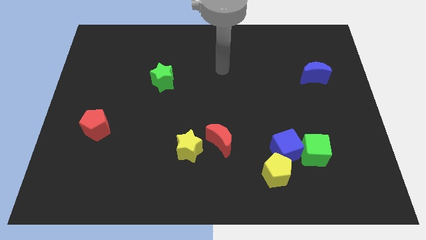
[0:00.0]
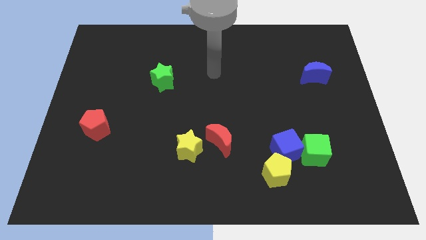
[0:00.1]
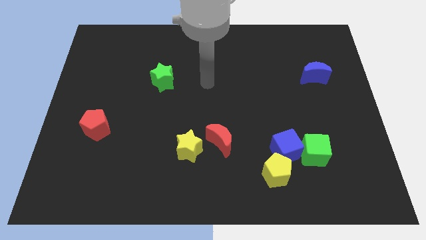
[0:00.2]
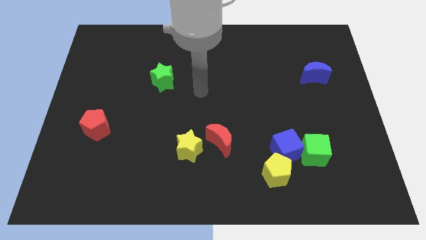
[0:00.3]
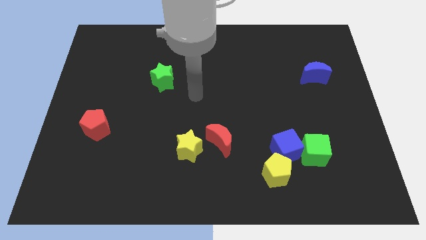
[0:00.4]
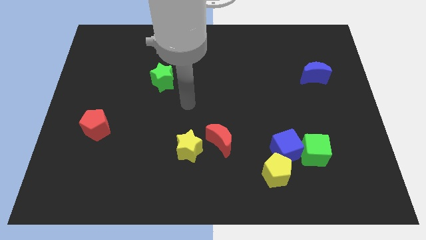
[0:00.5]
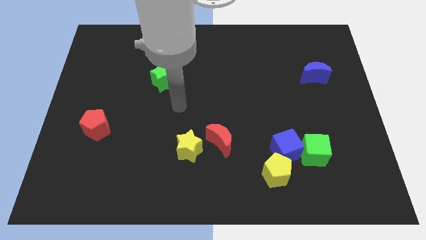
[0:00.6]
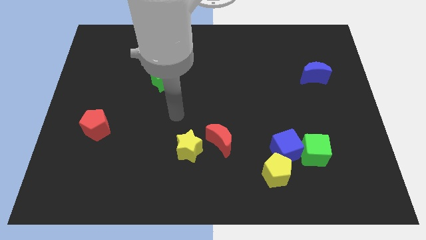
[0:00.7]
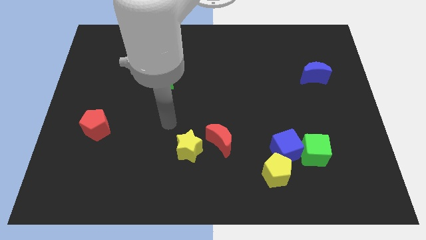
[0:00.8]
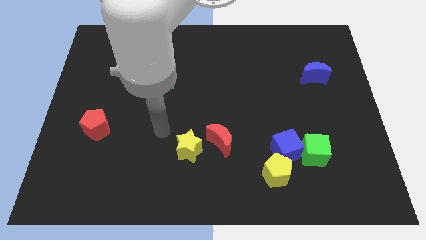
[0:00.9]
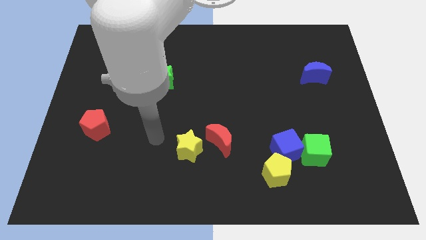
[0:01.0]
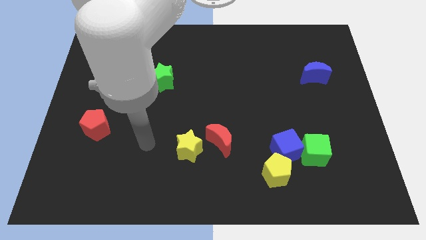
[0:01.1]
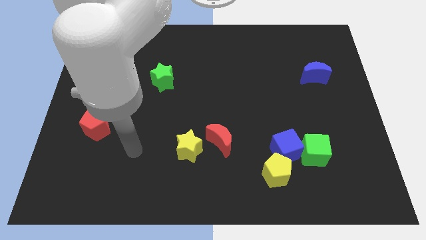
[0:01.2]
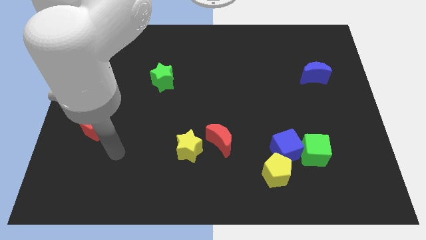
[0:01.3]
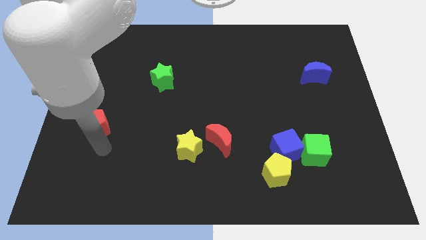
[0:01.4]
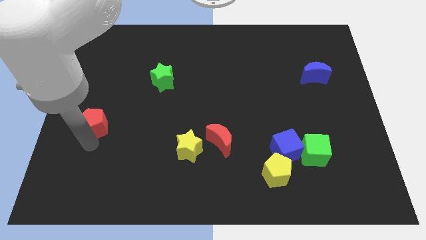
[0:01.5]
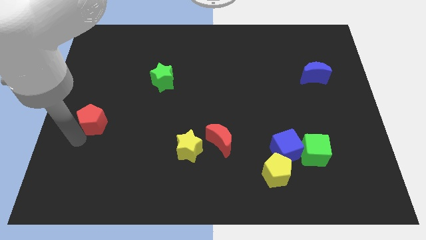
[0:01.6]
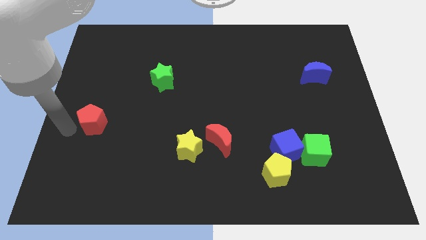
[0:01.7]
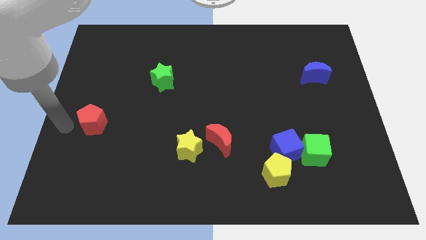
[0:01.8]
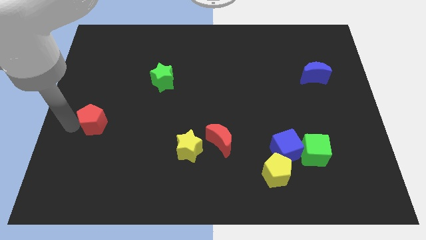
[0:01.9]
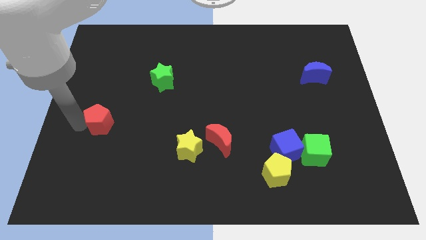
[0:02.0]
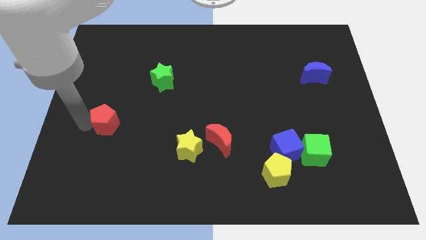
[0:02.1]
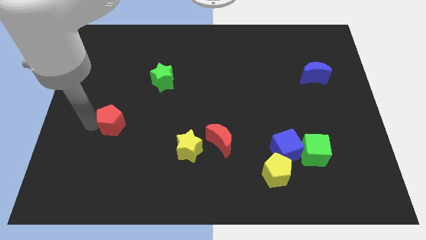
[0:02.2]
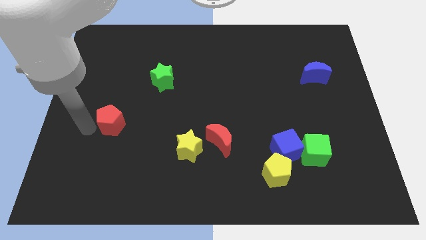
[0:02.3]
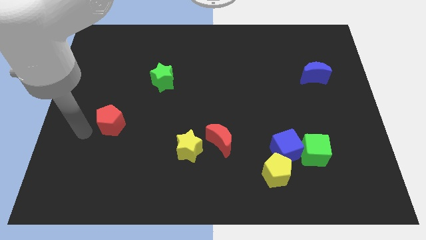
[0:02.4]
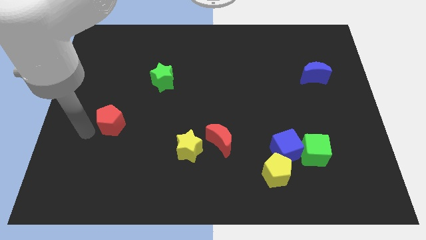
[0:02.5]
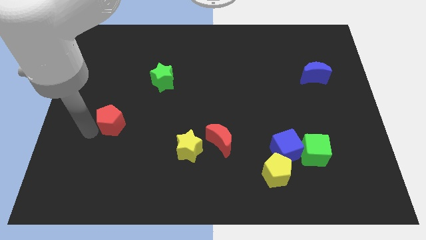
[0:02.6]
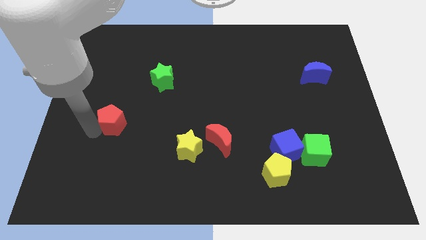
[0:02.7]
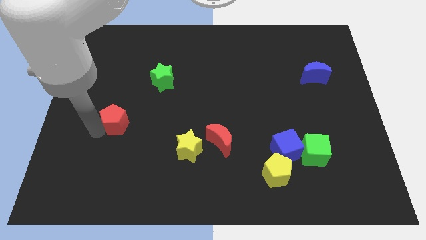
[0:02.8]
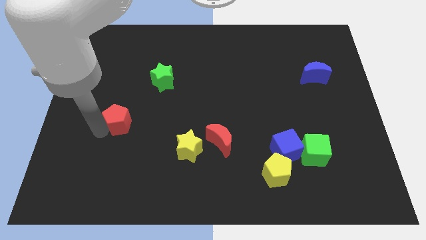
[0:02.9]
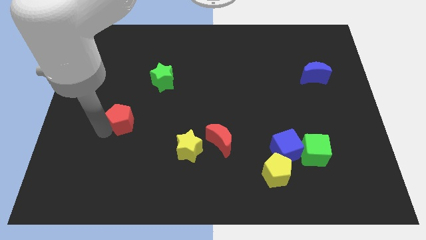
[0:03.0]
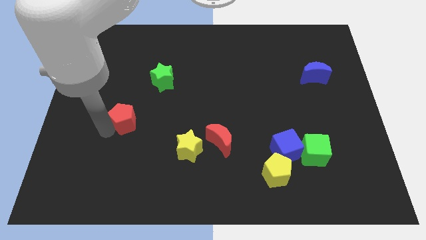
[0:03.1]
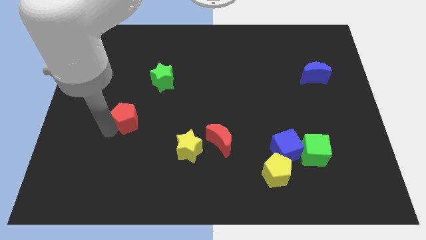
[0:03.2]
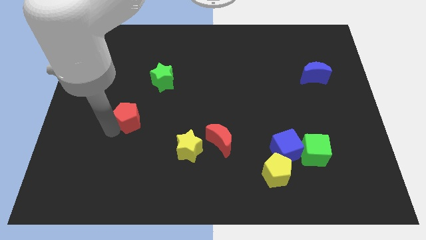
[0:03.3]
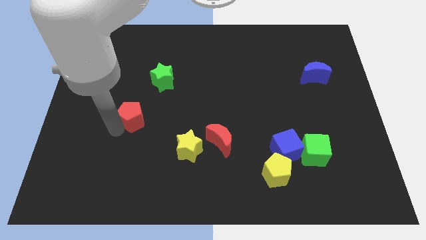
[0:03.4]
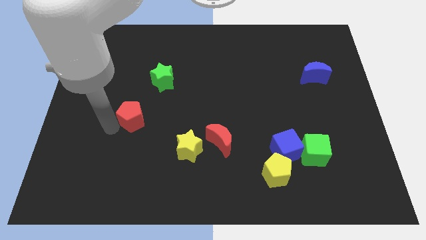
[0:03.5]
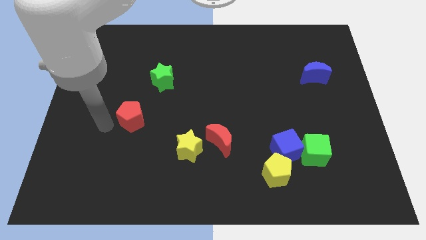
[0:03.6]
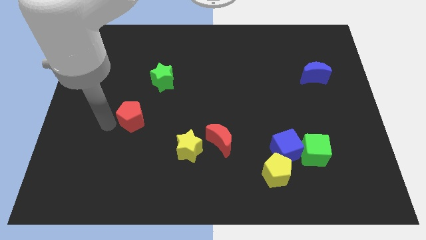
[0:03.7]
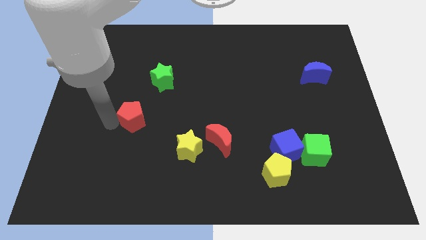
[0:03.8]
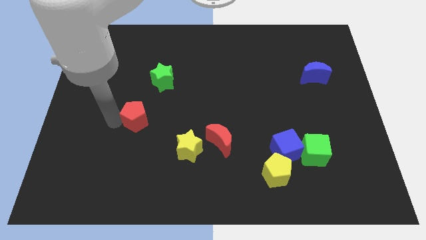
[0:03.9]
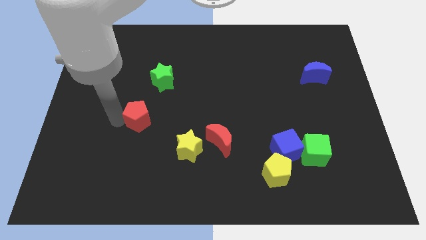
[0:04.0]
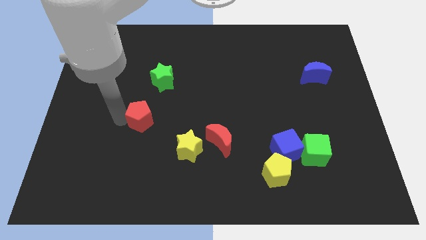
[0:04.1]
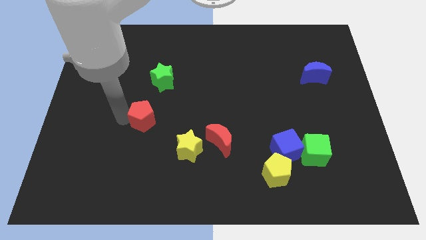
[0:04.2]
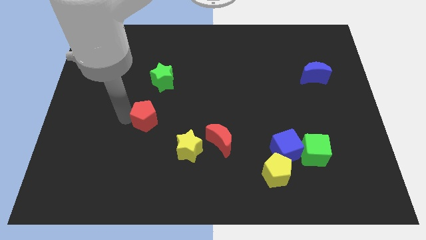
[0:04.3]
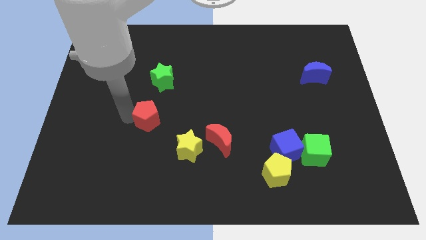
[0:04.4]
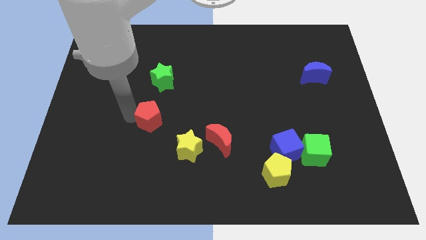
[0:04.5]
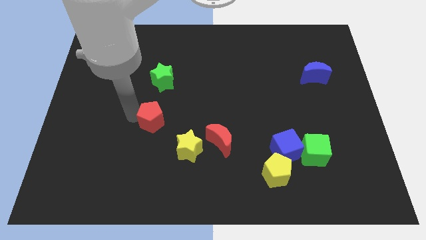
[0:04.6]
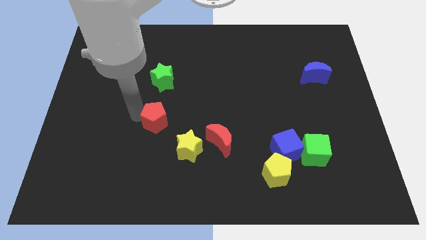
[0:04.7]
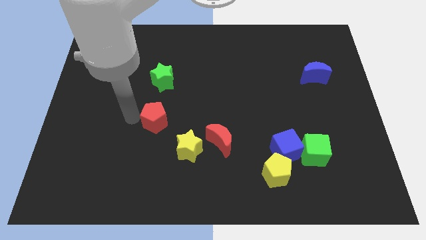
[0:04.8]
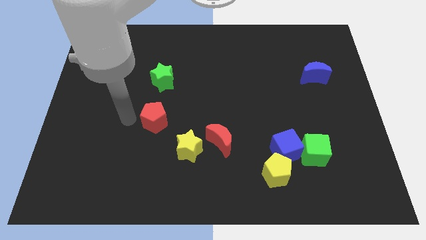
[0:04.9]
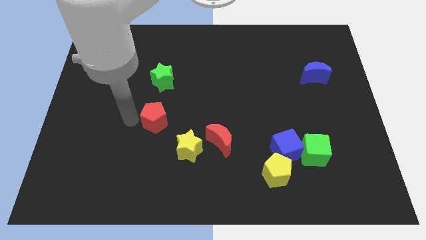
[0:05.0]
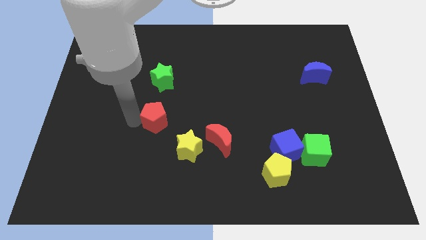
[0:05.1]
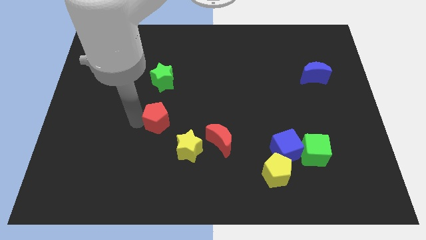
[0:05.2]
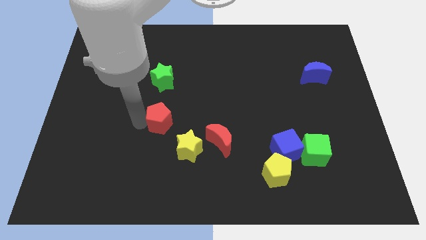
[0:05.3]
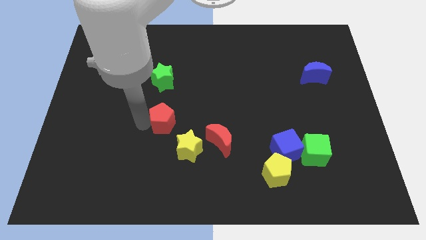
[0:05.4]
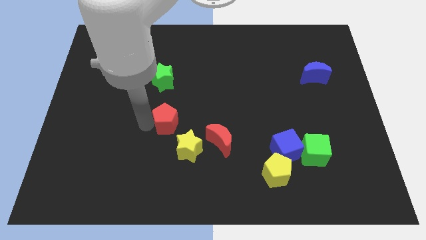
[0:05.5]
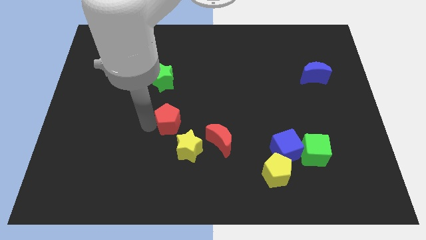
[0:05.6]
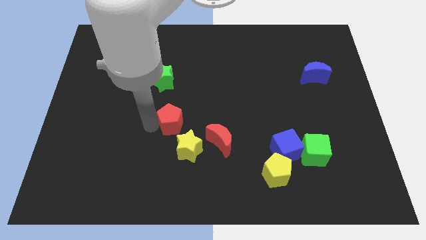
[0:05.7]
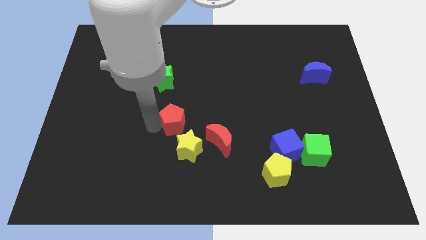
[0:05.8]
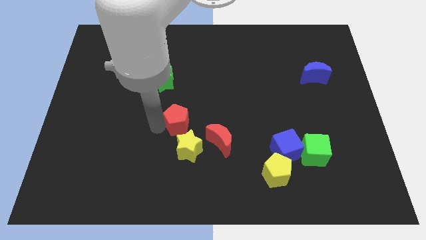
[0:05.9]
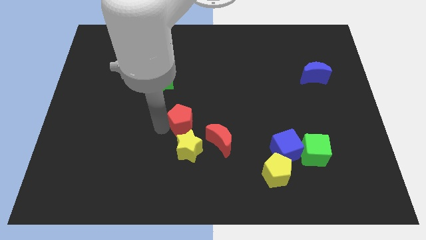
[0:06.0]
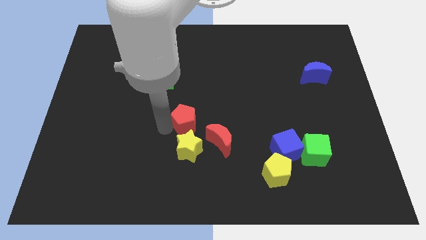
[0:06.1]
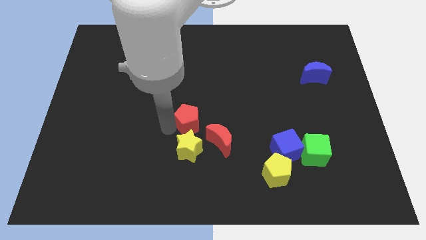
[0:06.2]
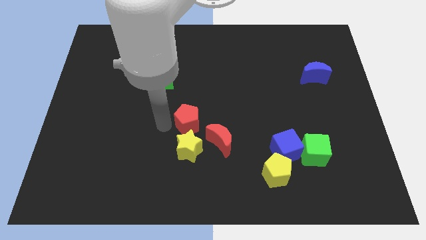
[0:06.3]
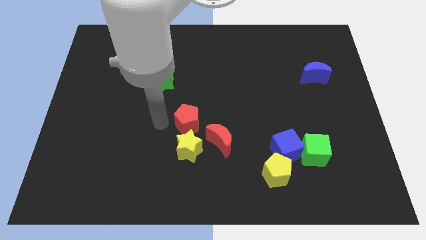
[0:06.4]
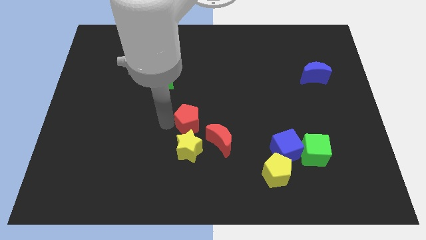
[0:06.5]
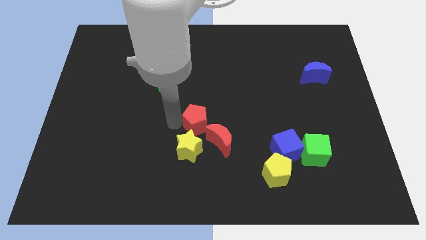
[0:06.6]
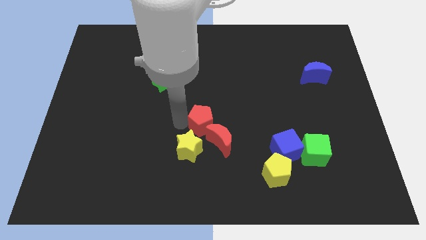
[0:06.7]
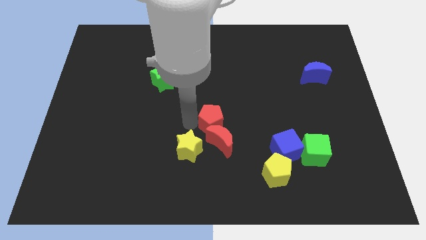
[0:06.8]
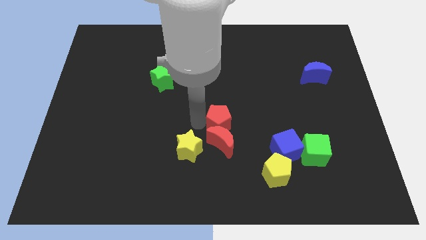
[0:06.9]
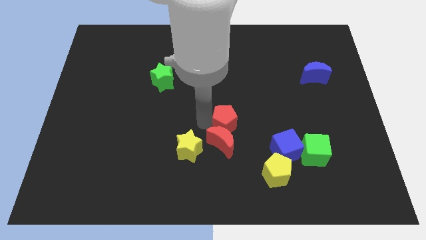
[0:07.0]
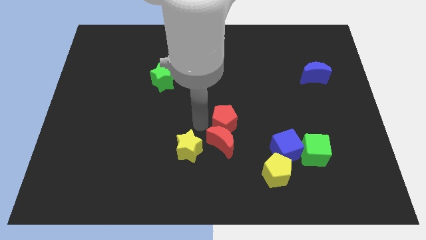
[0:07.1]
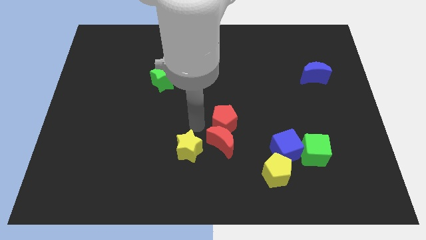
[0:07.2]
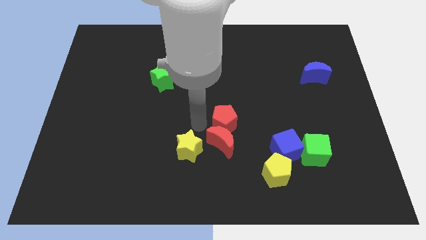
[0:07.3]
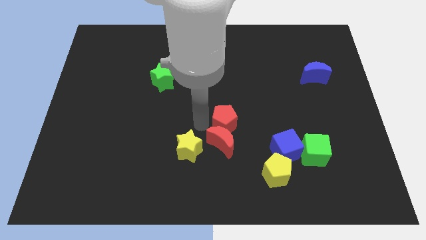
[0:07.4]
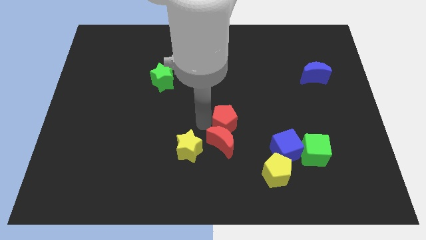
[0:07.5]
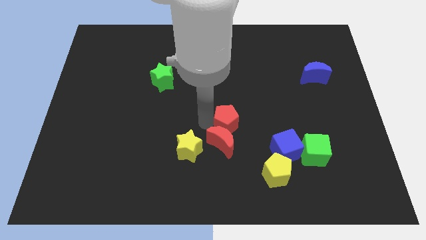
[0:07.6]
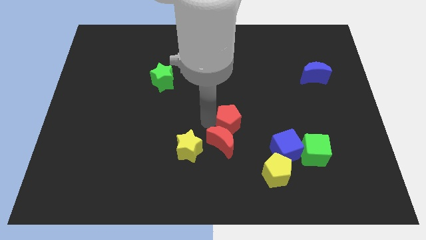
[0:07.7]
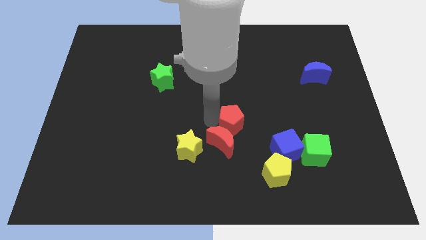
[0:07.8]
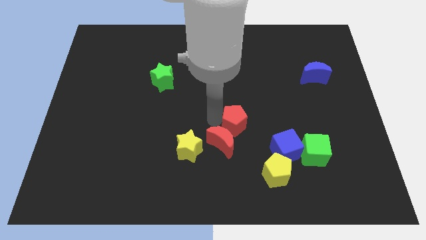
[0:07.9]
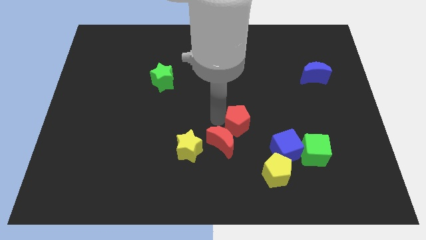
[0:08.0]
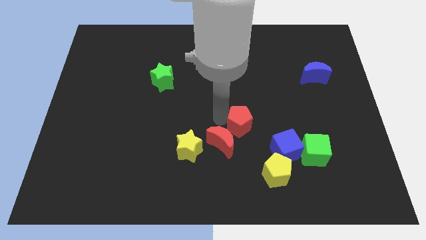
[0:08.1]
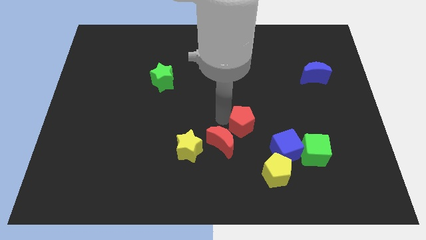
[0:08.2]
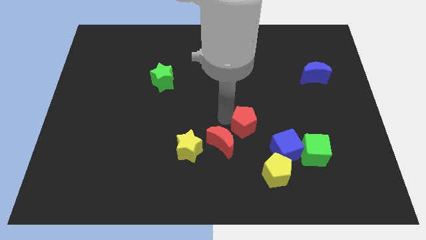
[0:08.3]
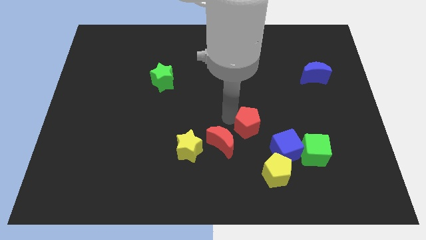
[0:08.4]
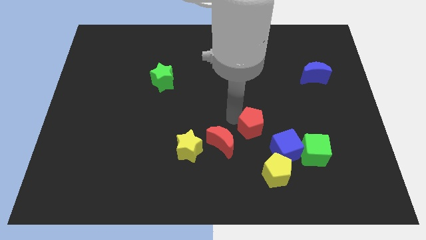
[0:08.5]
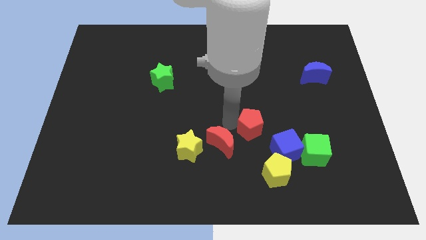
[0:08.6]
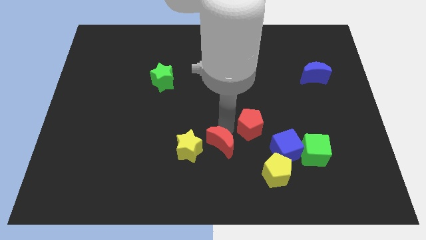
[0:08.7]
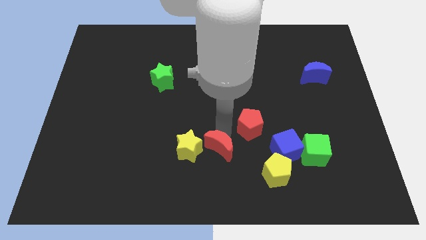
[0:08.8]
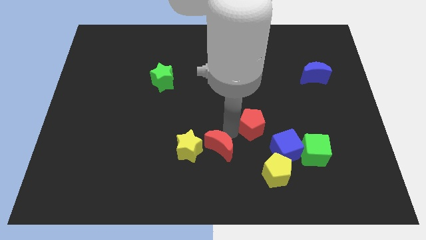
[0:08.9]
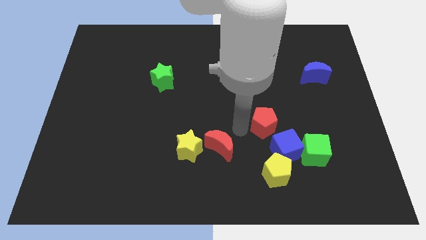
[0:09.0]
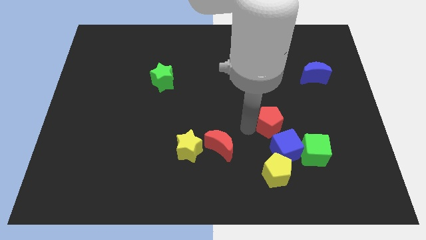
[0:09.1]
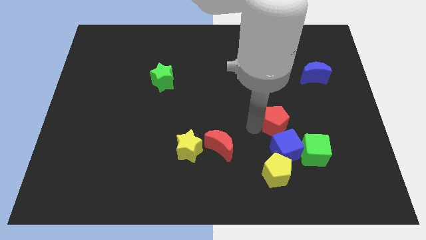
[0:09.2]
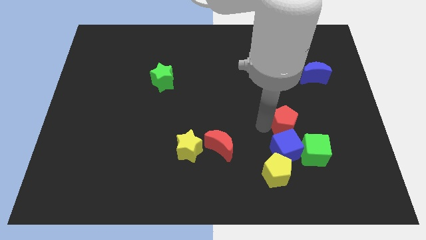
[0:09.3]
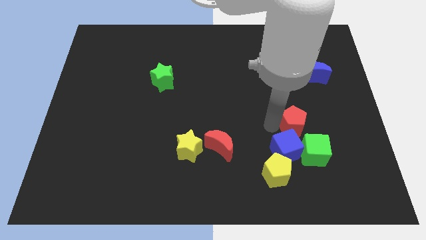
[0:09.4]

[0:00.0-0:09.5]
put the red pentagon above the green cube
